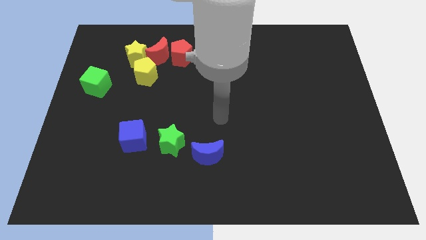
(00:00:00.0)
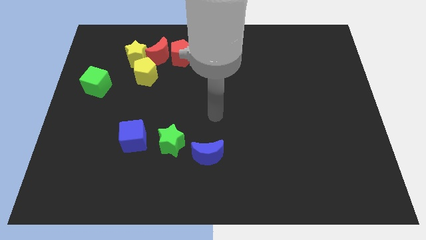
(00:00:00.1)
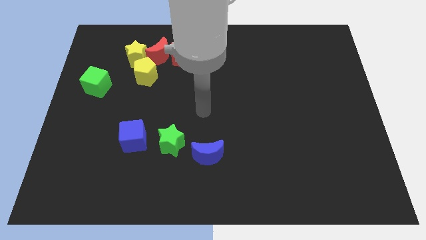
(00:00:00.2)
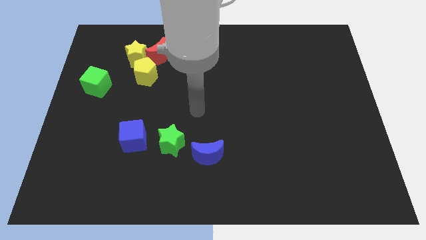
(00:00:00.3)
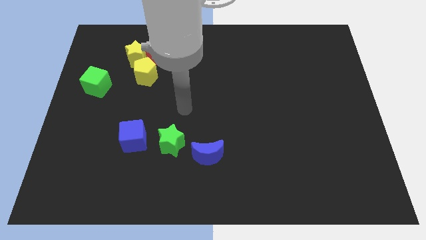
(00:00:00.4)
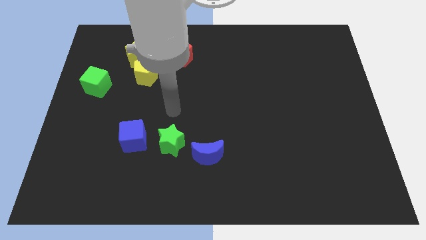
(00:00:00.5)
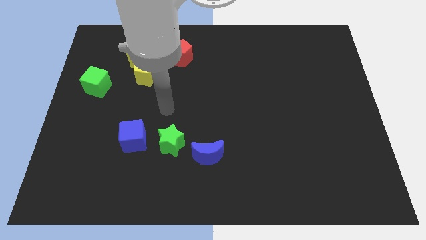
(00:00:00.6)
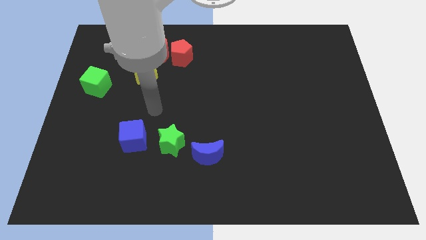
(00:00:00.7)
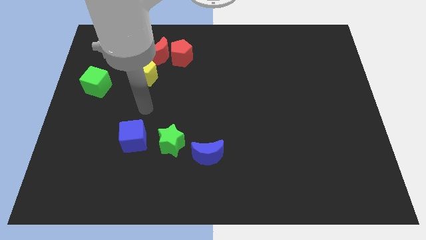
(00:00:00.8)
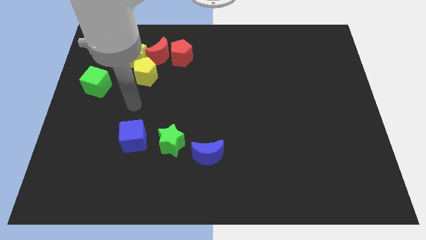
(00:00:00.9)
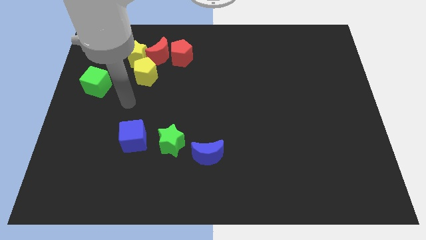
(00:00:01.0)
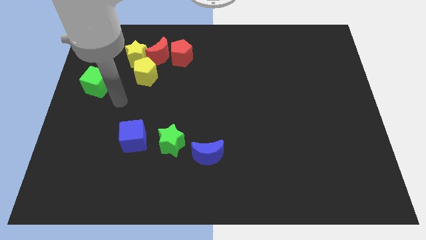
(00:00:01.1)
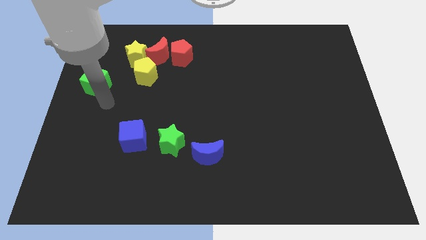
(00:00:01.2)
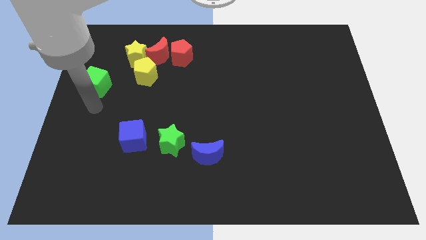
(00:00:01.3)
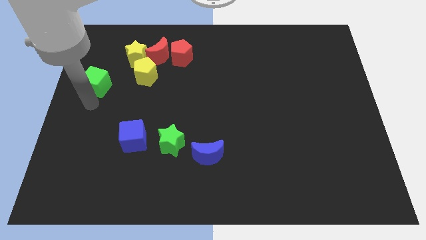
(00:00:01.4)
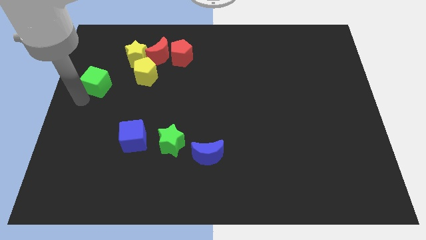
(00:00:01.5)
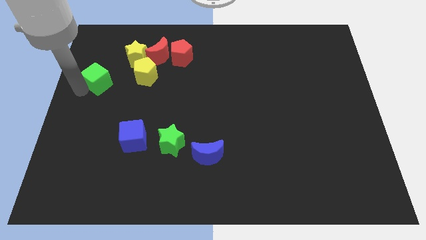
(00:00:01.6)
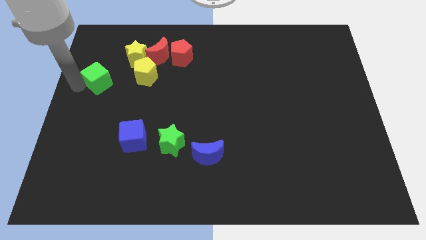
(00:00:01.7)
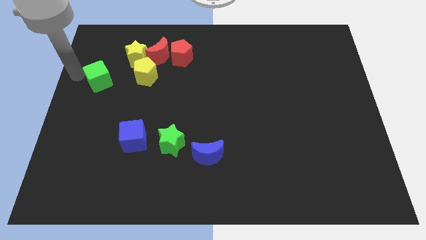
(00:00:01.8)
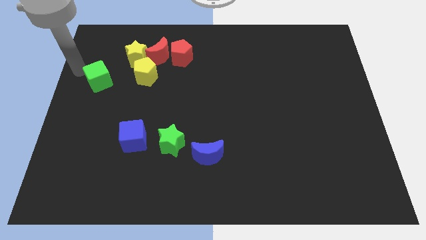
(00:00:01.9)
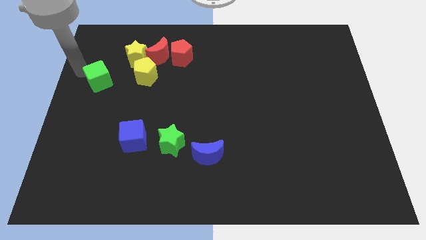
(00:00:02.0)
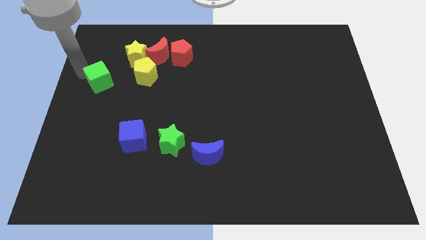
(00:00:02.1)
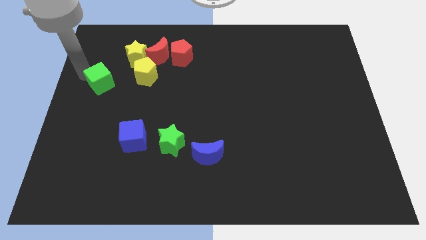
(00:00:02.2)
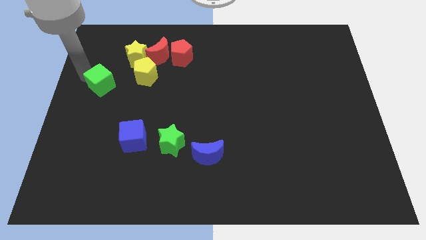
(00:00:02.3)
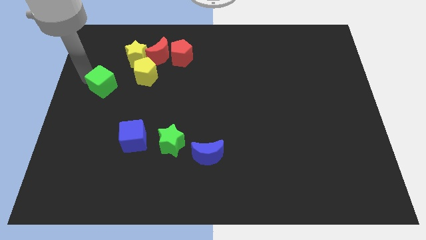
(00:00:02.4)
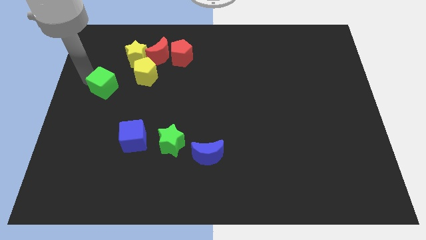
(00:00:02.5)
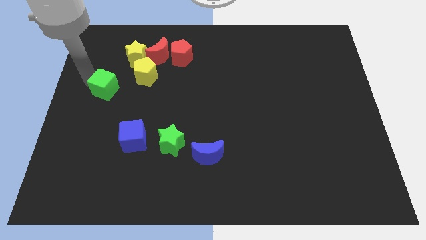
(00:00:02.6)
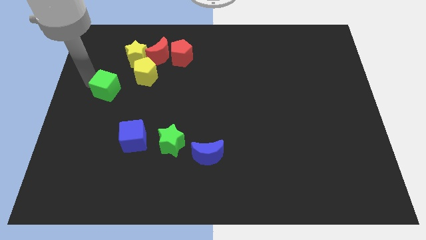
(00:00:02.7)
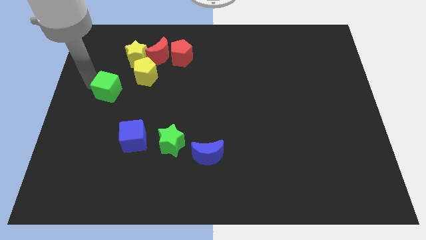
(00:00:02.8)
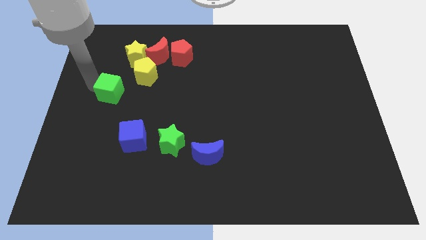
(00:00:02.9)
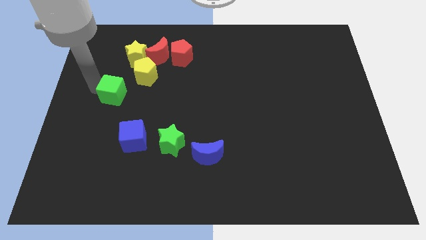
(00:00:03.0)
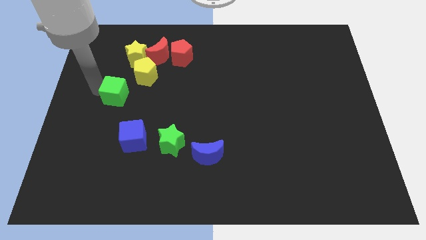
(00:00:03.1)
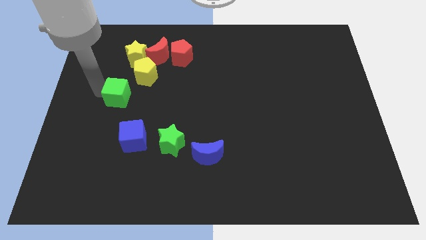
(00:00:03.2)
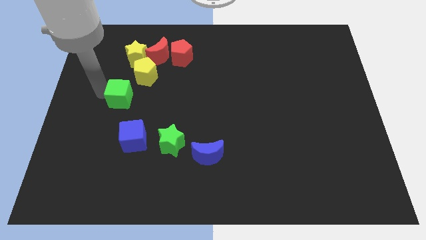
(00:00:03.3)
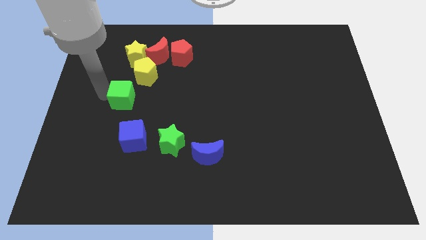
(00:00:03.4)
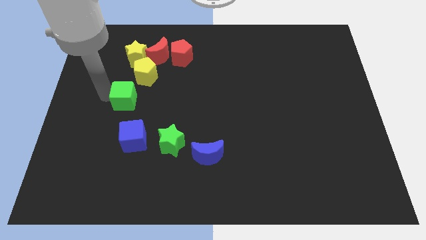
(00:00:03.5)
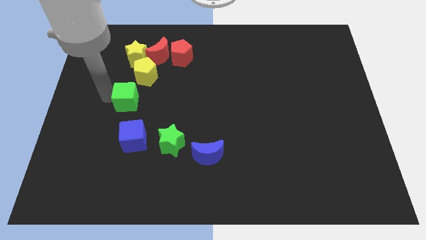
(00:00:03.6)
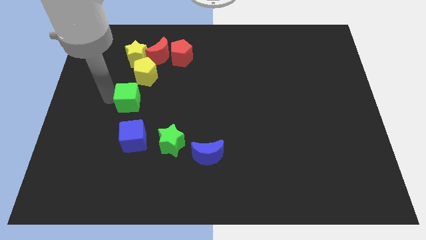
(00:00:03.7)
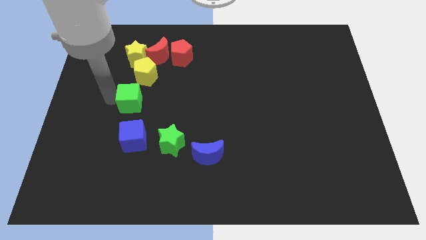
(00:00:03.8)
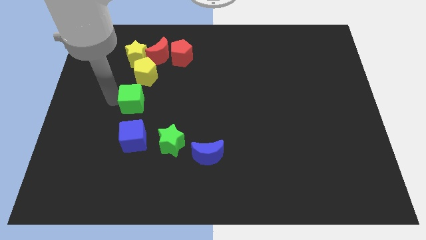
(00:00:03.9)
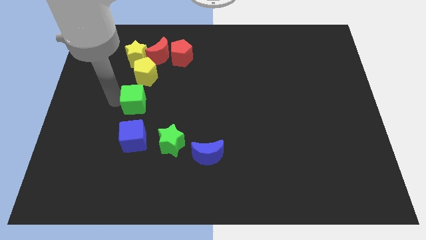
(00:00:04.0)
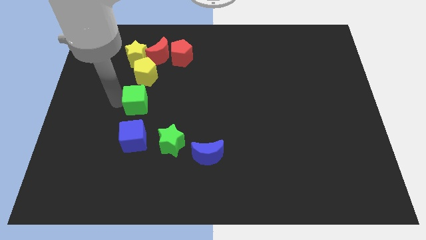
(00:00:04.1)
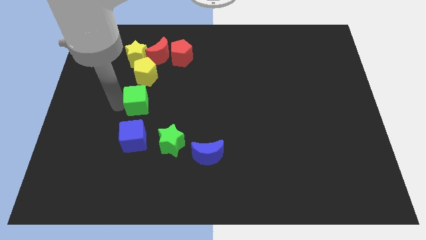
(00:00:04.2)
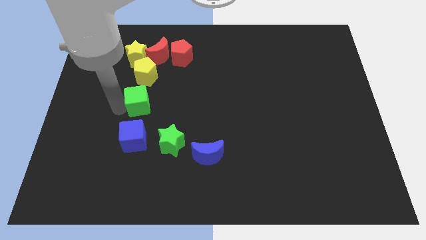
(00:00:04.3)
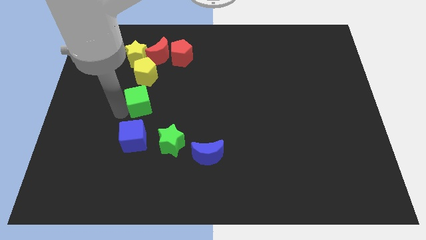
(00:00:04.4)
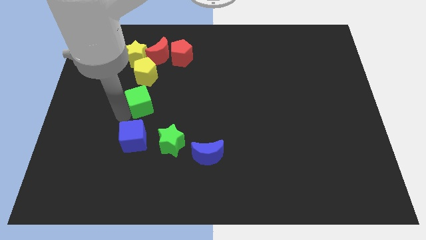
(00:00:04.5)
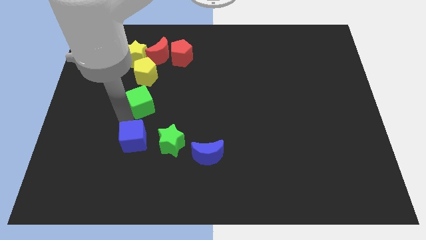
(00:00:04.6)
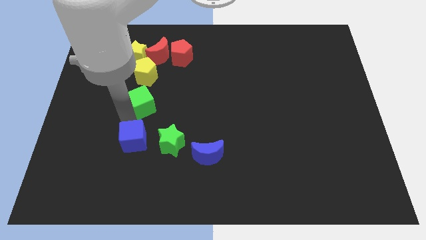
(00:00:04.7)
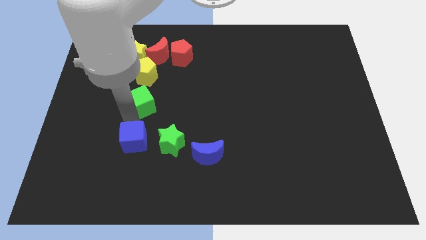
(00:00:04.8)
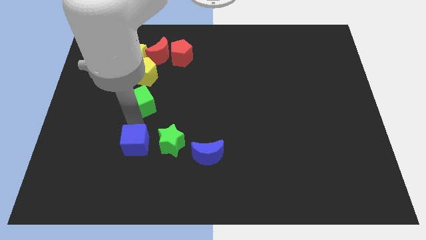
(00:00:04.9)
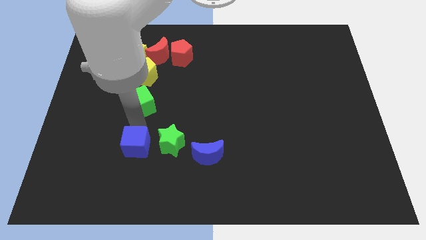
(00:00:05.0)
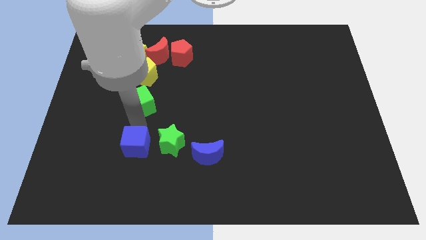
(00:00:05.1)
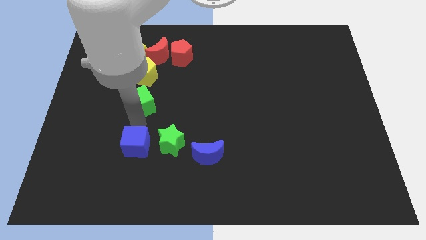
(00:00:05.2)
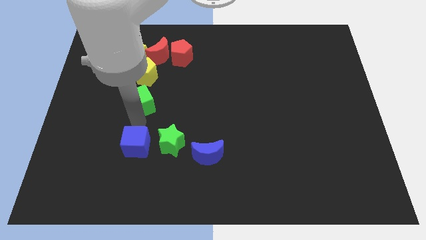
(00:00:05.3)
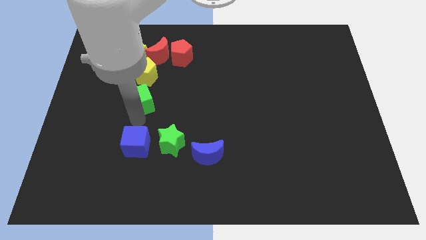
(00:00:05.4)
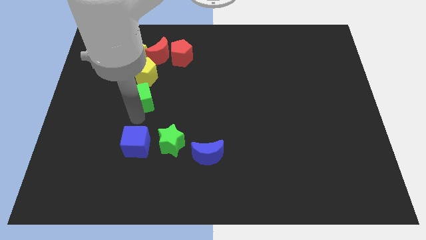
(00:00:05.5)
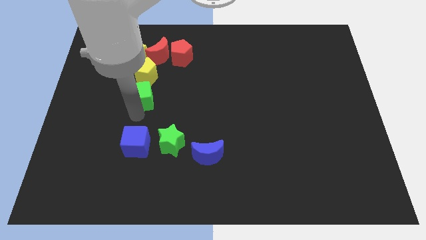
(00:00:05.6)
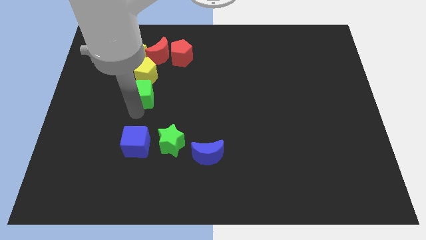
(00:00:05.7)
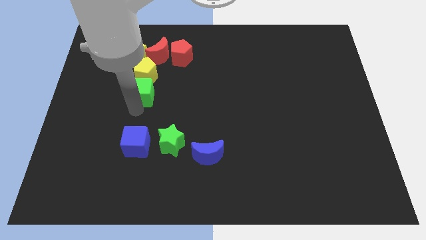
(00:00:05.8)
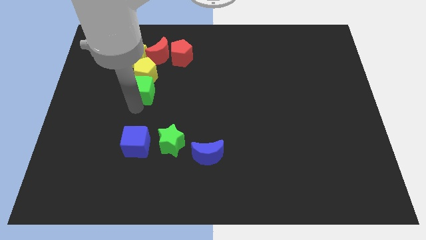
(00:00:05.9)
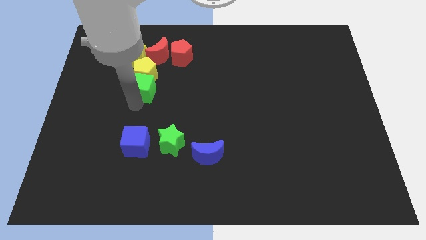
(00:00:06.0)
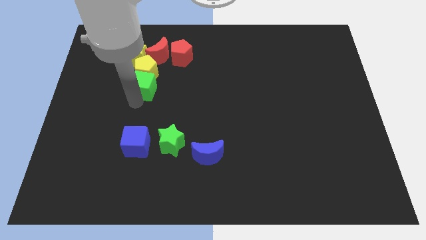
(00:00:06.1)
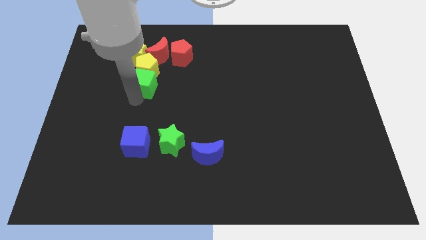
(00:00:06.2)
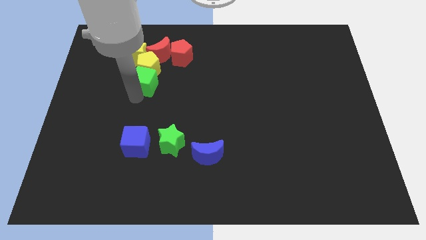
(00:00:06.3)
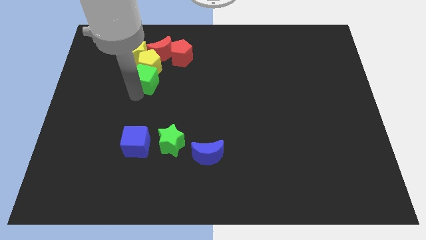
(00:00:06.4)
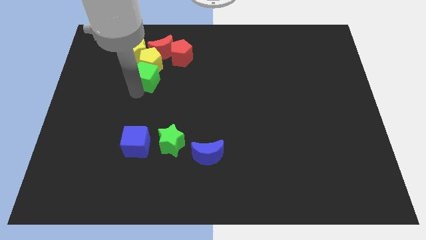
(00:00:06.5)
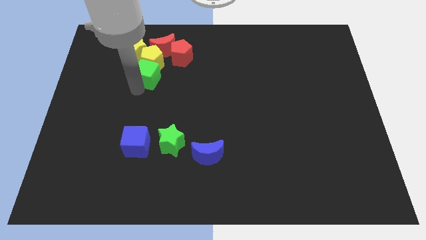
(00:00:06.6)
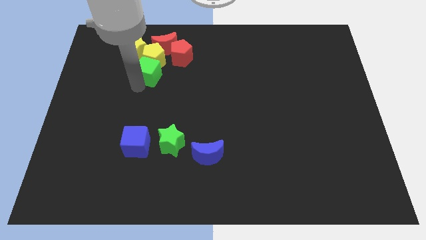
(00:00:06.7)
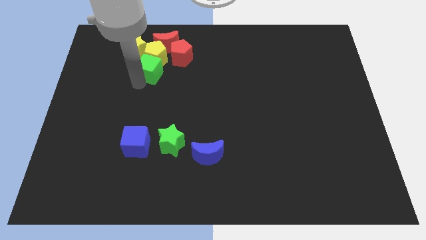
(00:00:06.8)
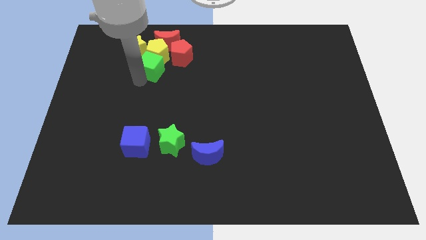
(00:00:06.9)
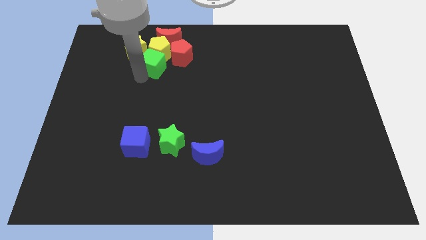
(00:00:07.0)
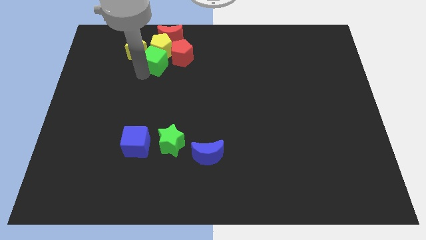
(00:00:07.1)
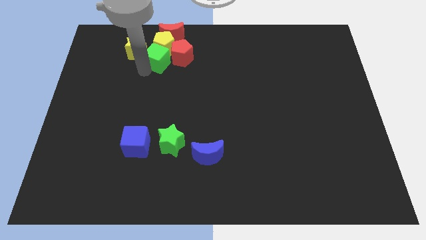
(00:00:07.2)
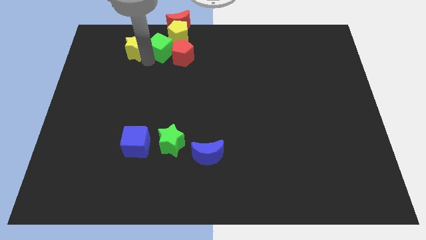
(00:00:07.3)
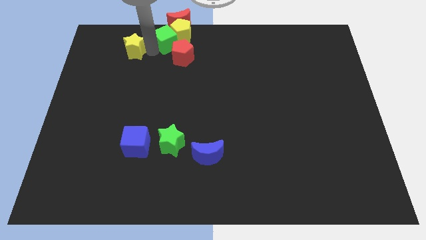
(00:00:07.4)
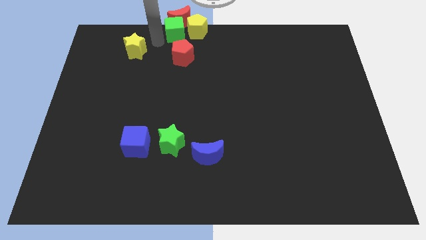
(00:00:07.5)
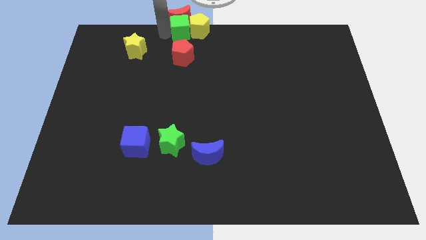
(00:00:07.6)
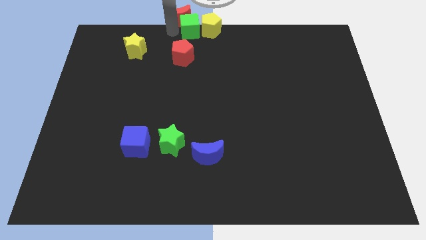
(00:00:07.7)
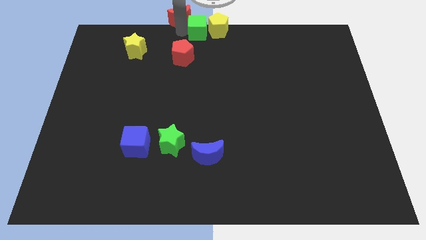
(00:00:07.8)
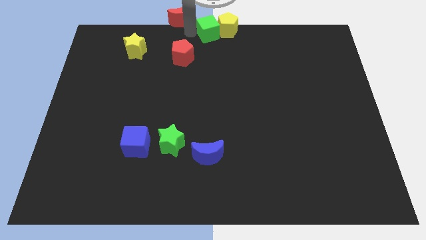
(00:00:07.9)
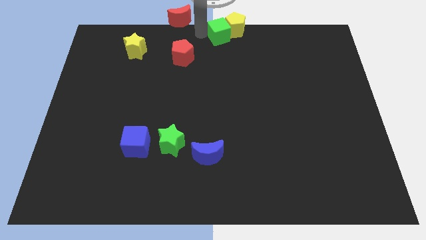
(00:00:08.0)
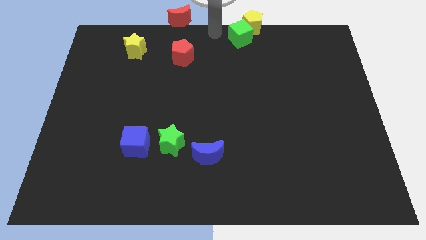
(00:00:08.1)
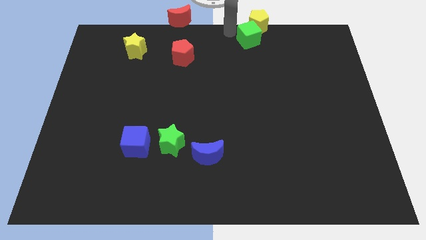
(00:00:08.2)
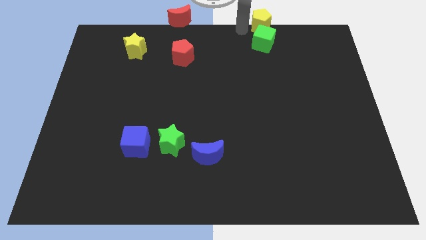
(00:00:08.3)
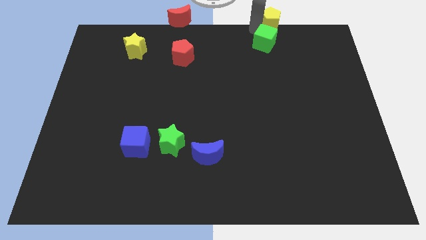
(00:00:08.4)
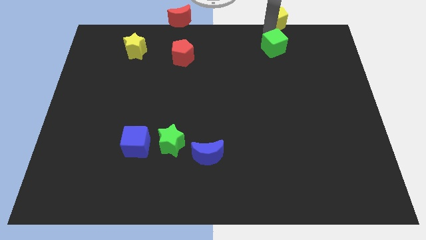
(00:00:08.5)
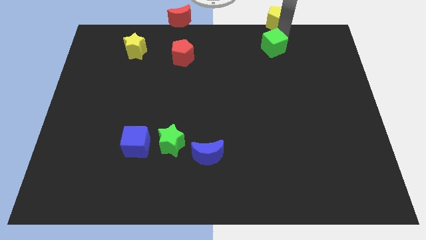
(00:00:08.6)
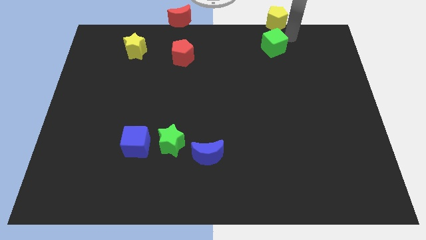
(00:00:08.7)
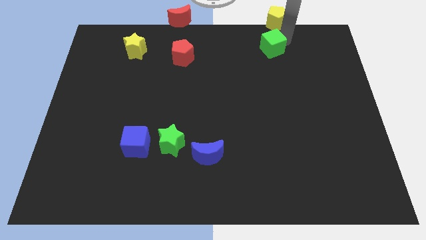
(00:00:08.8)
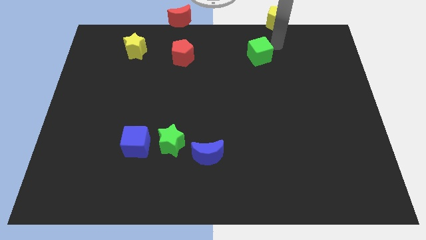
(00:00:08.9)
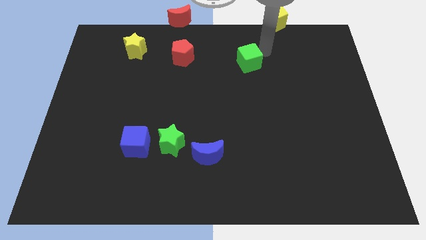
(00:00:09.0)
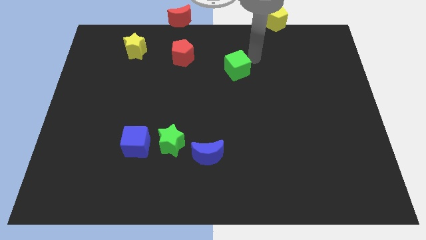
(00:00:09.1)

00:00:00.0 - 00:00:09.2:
slide the green cube to the middle
